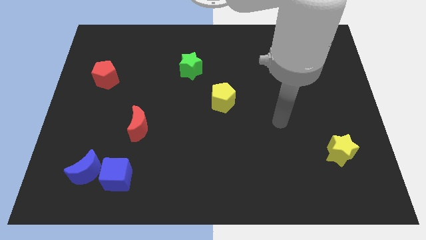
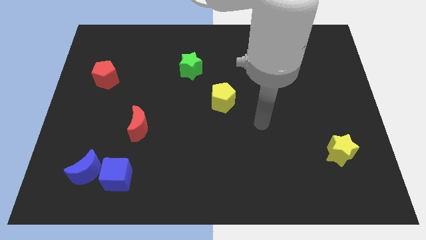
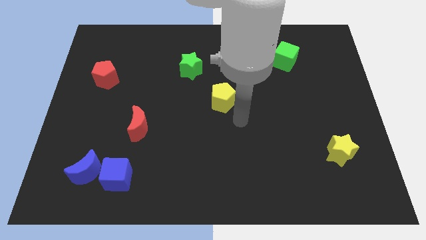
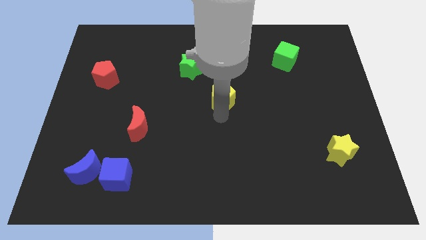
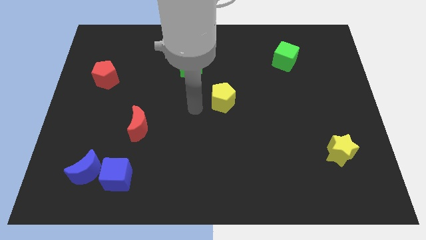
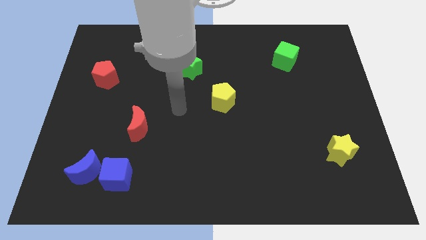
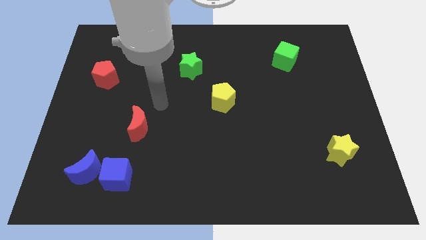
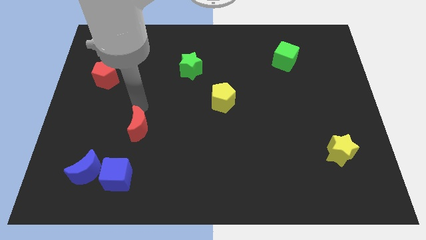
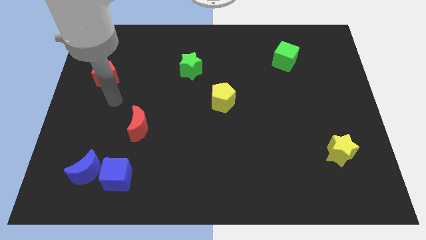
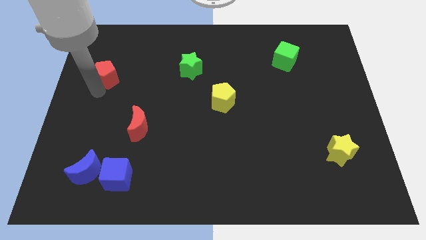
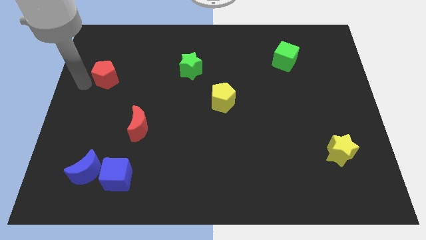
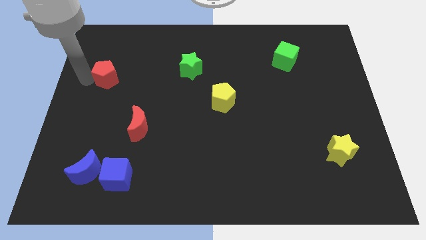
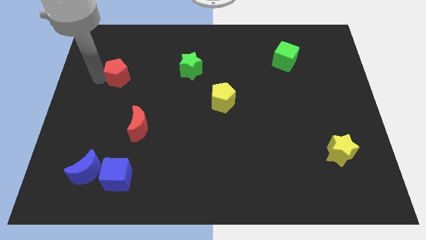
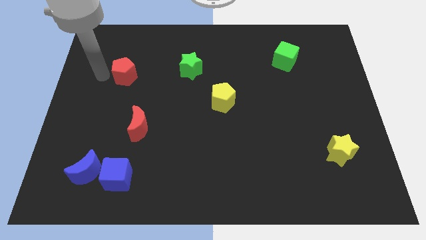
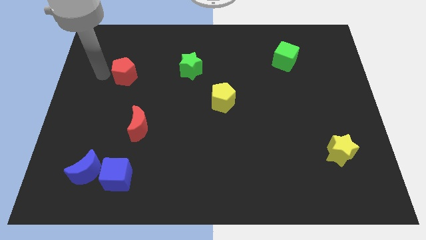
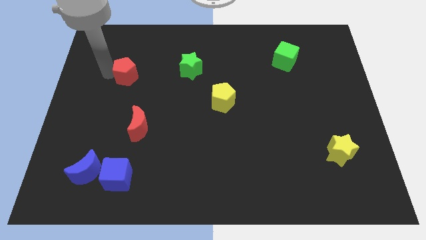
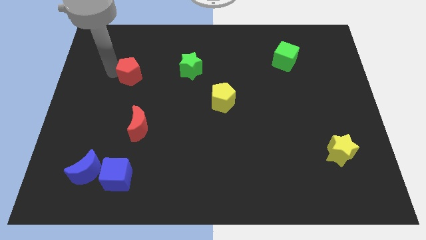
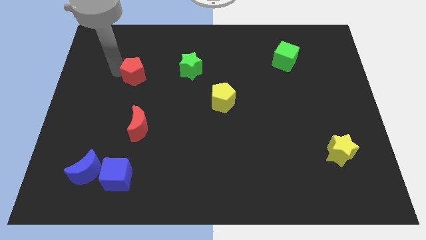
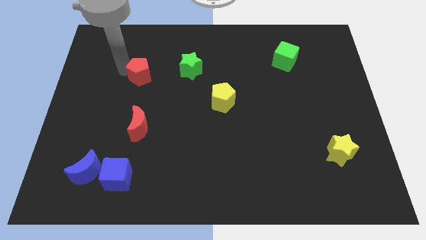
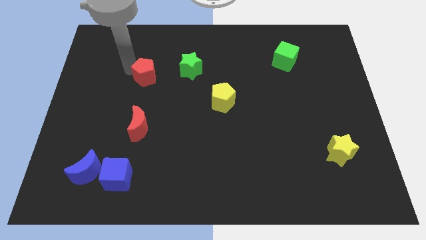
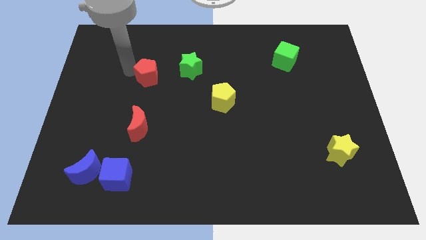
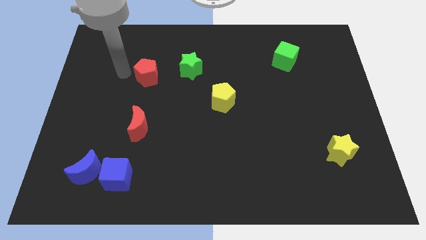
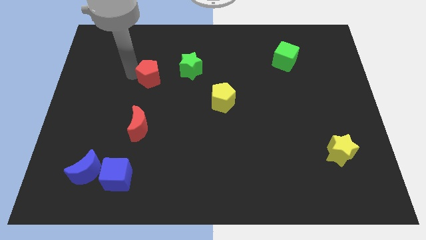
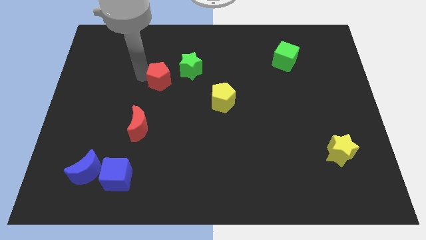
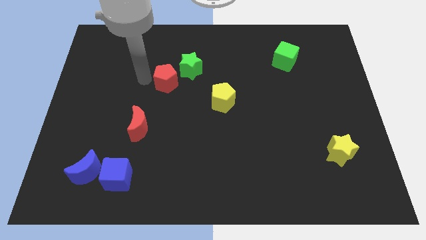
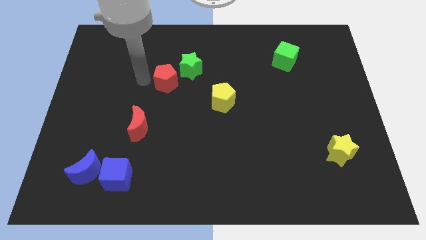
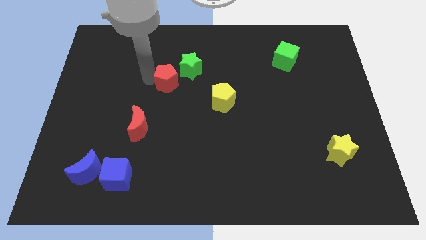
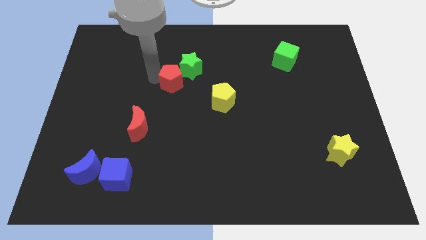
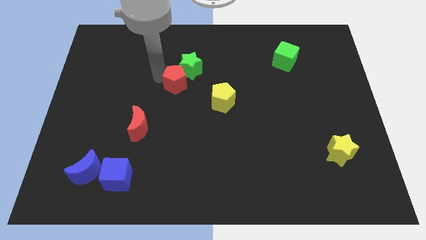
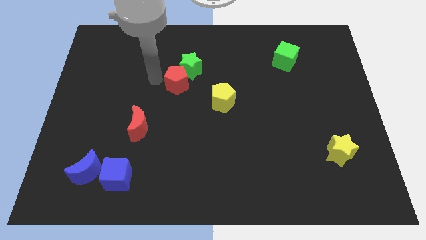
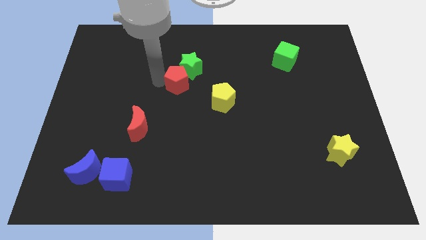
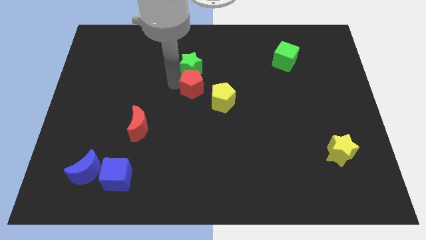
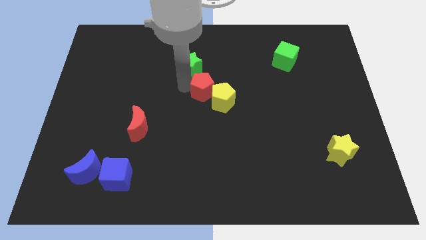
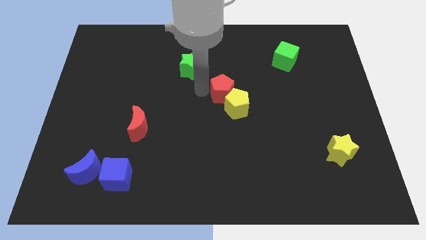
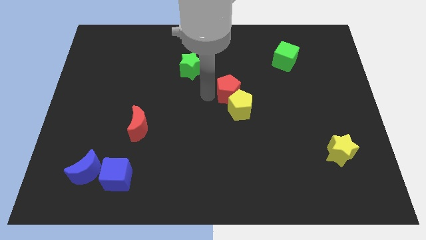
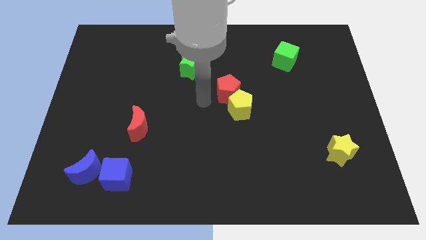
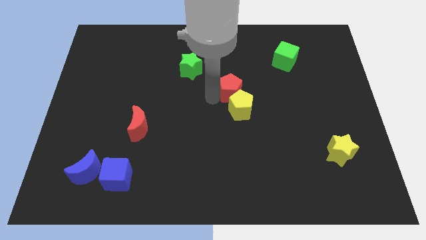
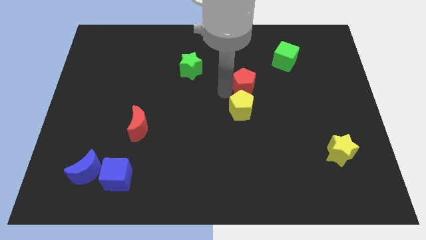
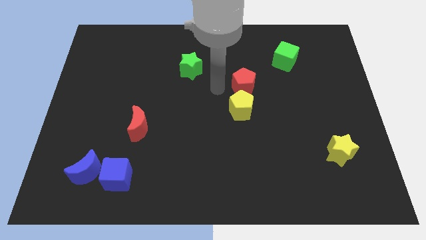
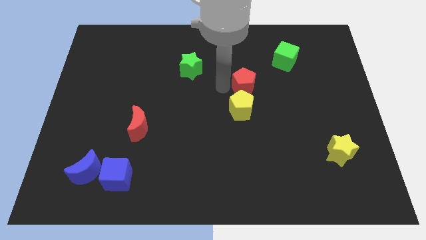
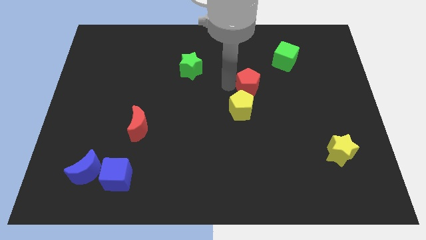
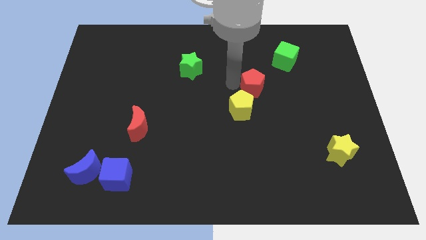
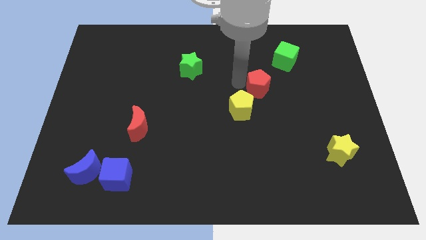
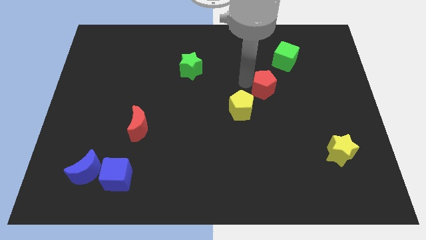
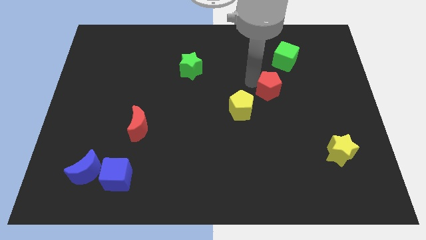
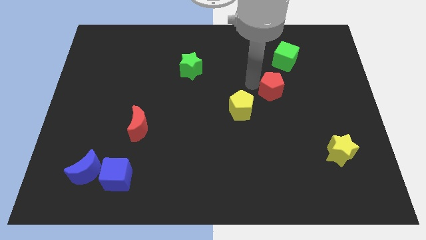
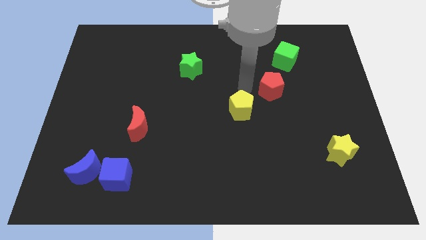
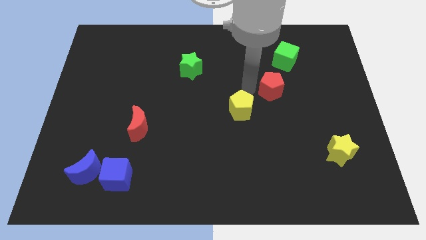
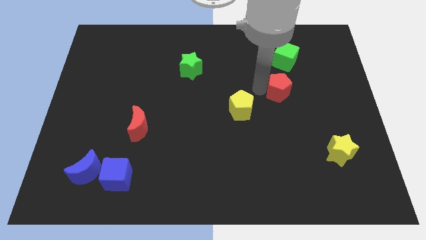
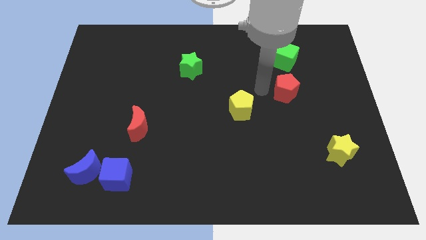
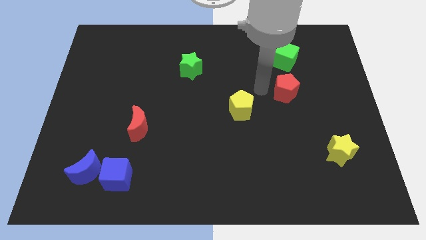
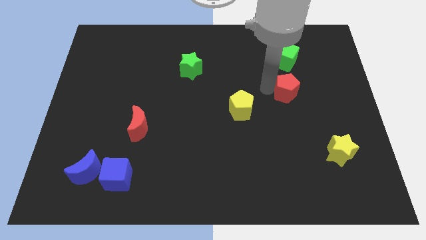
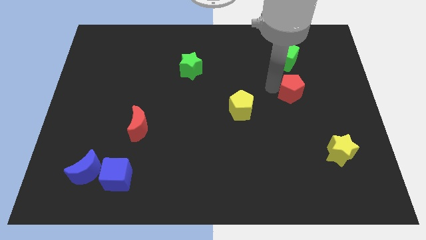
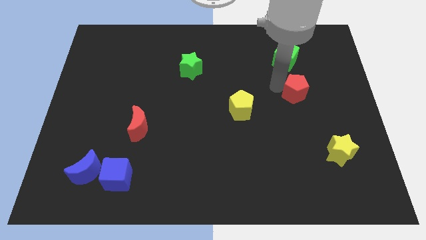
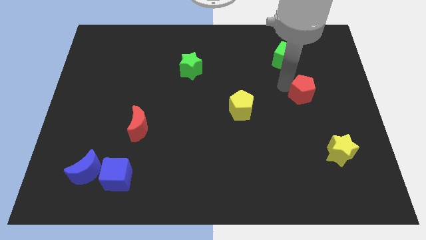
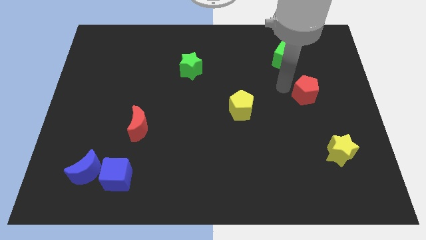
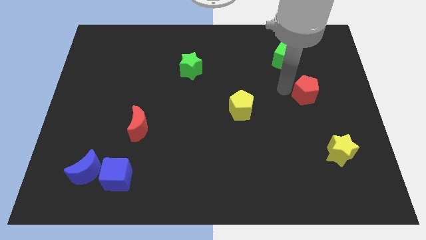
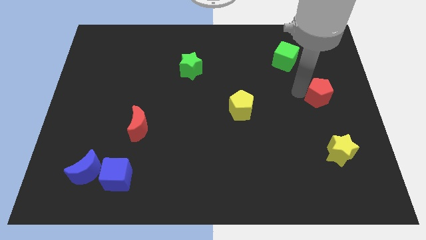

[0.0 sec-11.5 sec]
slide the red pentagon to the right side

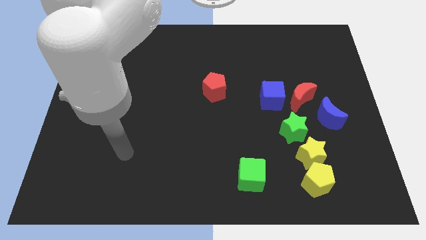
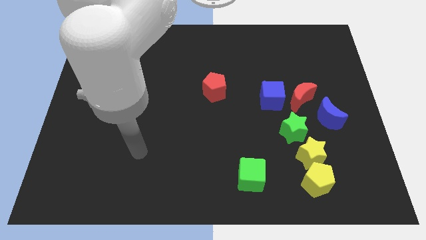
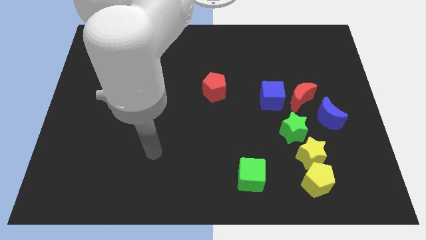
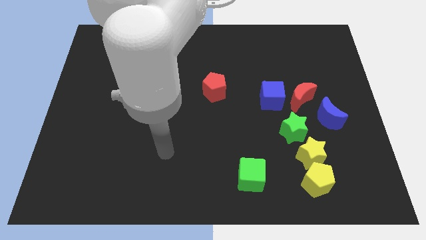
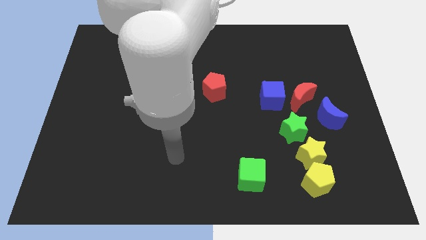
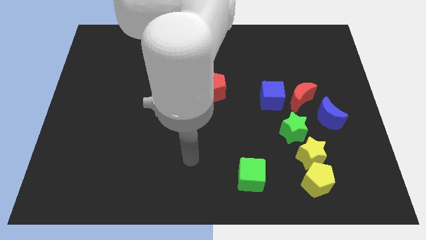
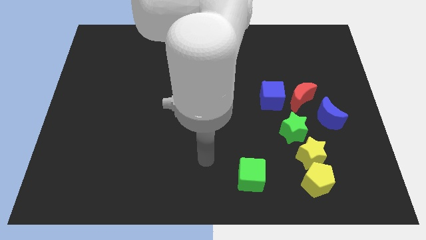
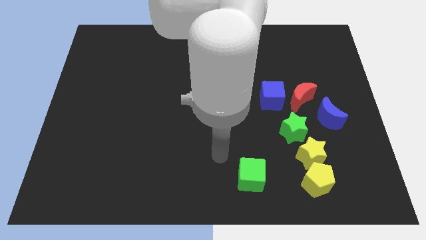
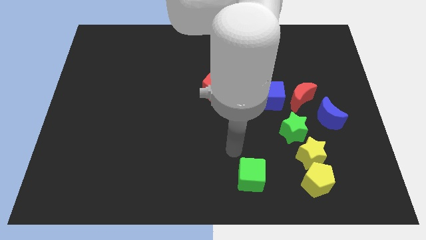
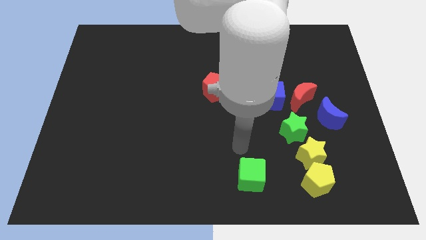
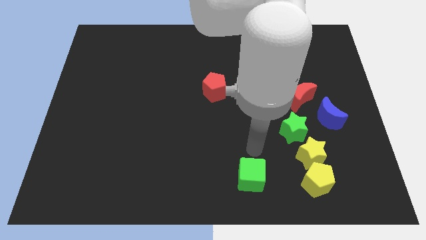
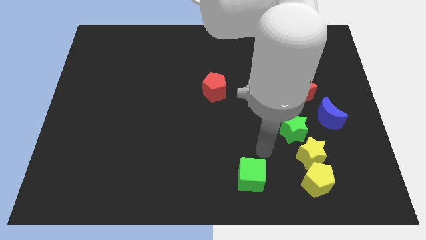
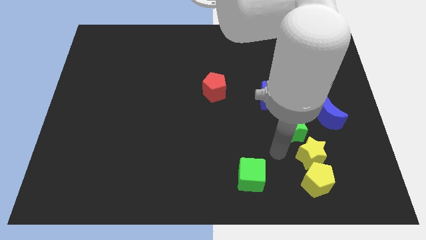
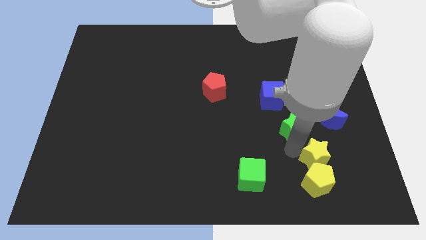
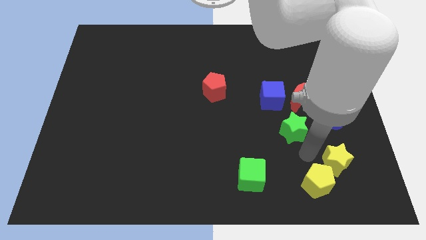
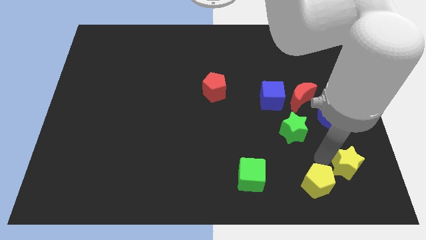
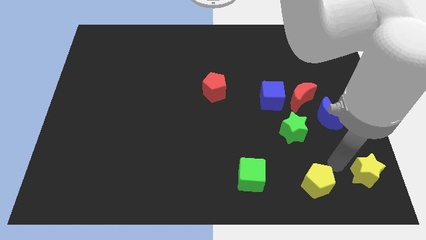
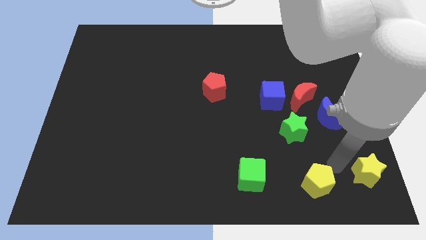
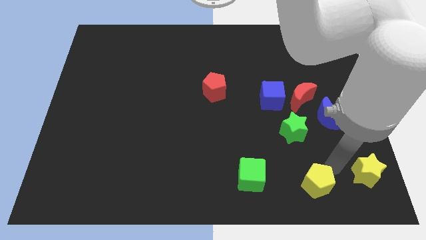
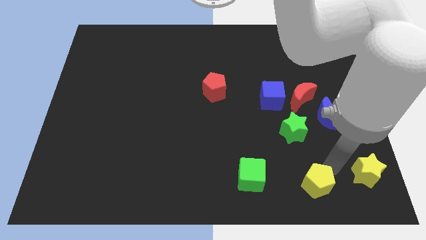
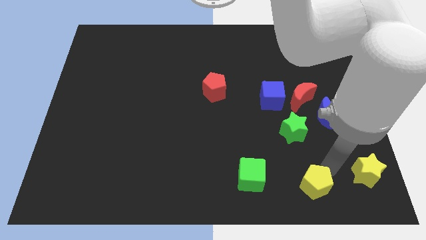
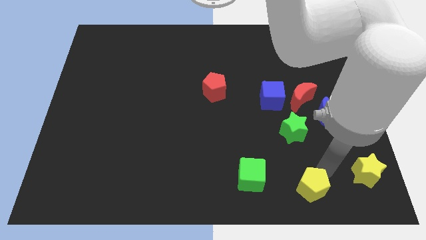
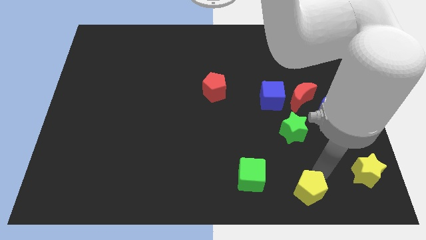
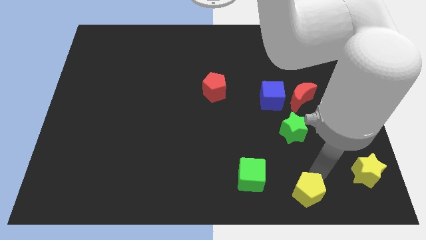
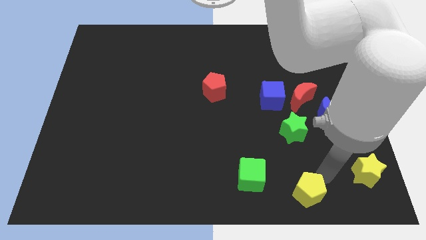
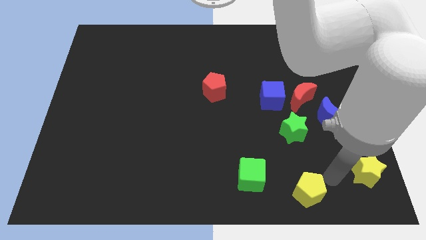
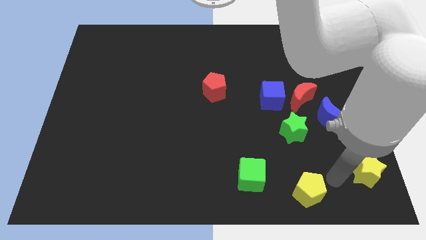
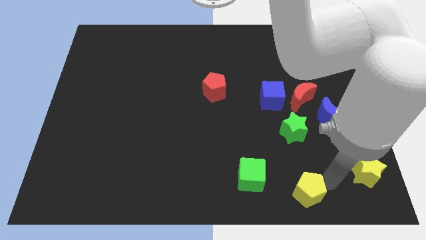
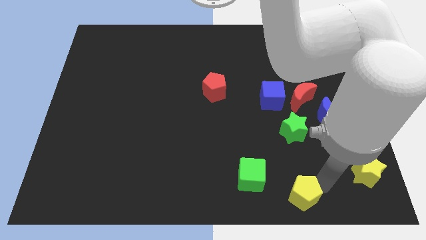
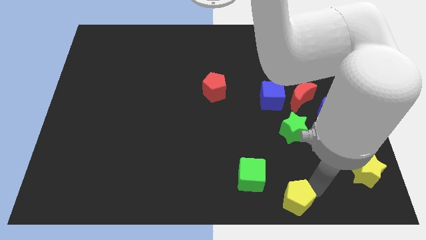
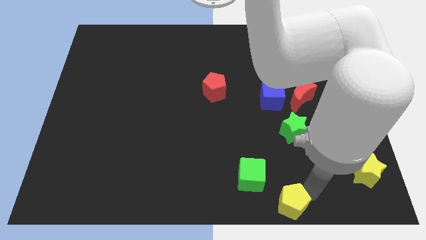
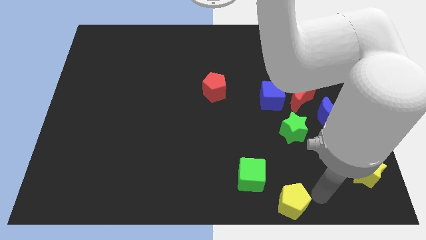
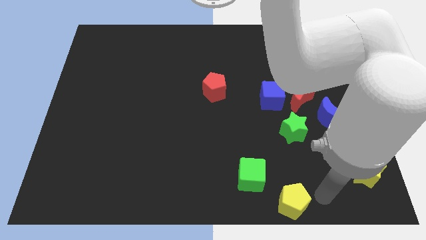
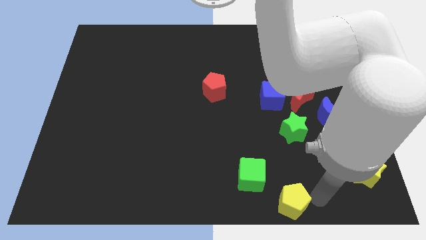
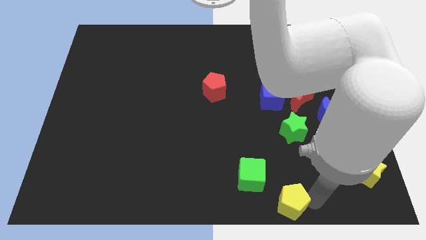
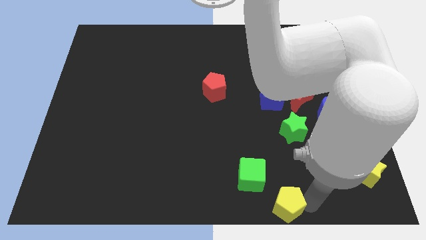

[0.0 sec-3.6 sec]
push the yellow pentagon to the bottom
